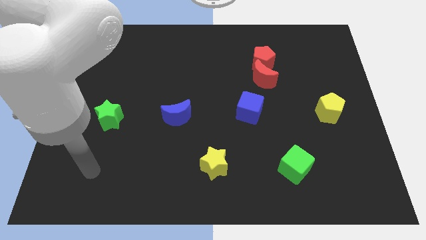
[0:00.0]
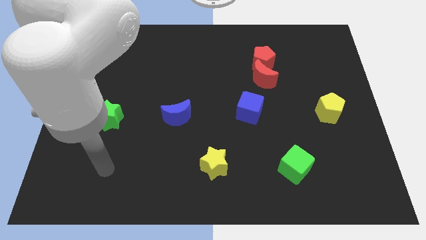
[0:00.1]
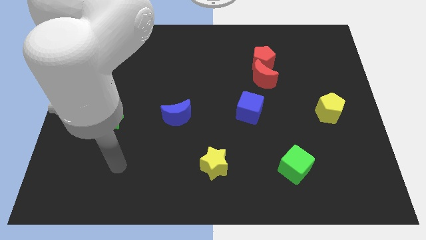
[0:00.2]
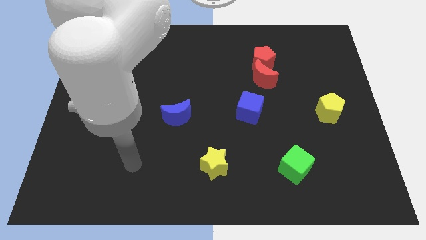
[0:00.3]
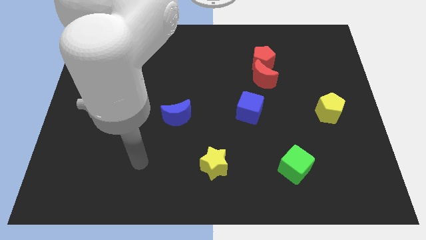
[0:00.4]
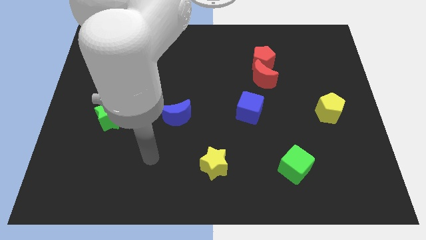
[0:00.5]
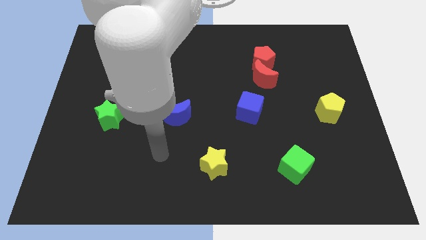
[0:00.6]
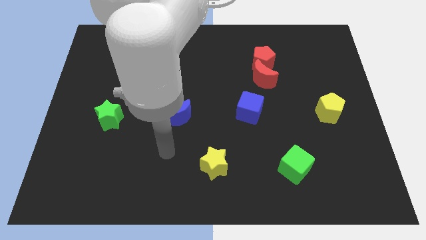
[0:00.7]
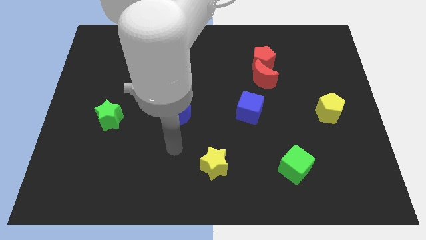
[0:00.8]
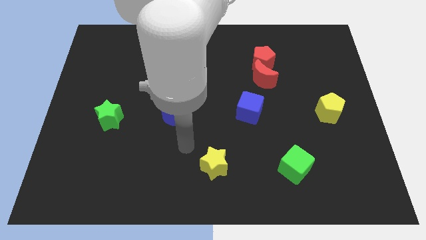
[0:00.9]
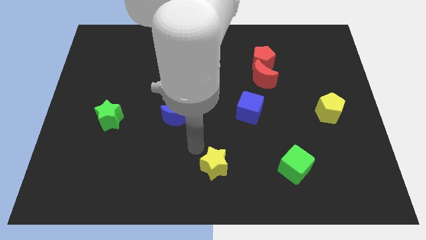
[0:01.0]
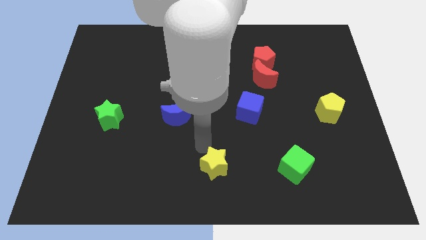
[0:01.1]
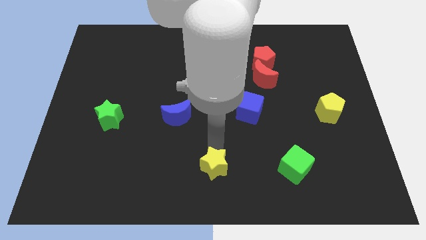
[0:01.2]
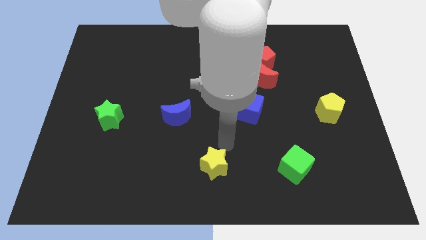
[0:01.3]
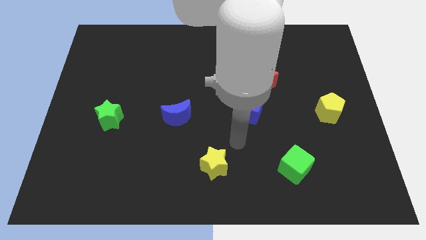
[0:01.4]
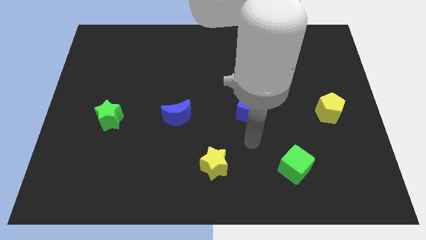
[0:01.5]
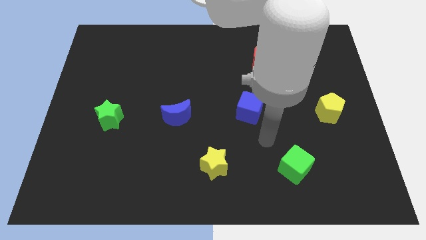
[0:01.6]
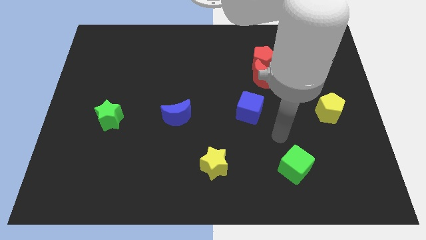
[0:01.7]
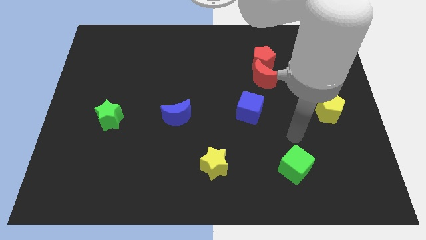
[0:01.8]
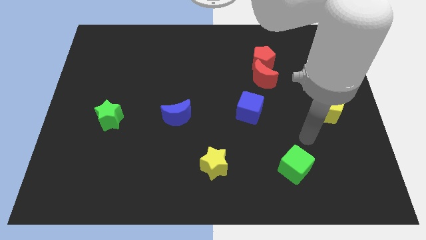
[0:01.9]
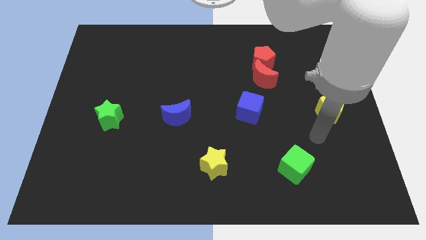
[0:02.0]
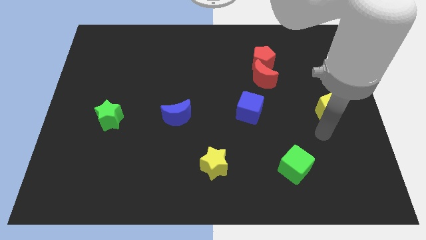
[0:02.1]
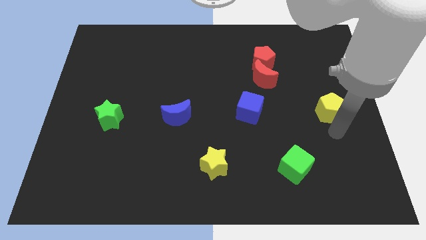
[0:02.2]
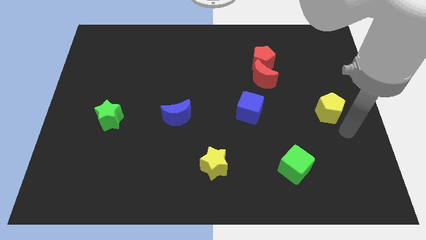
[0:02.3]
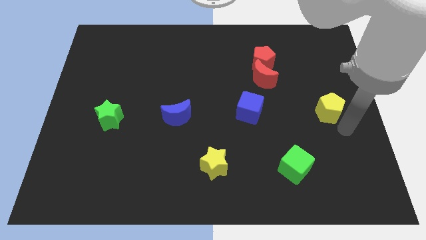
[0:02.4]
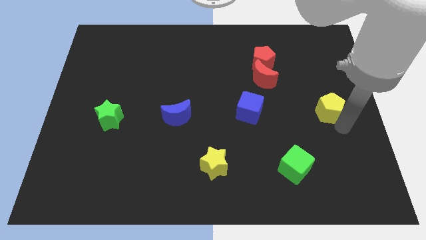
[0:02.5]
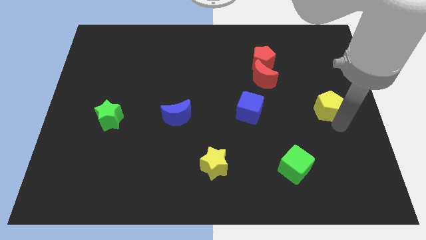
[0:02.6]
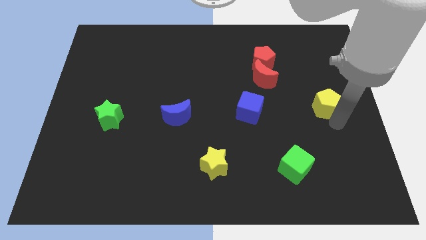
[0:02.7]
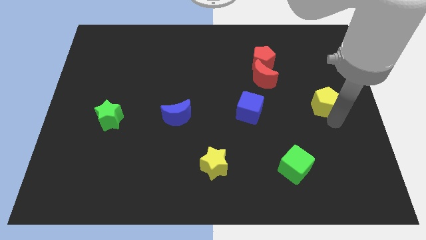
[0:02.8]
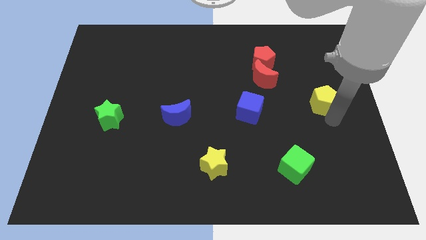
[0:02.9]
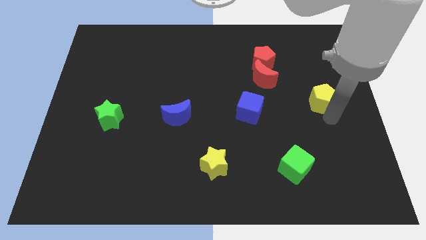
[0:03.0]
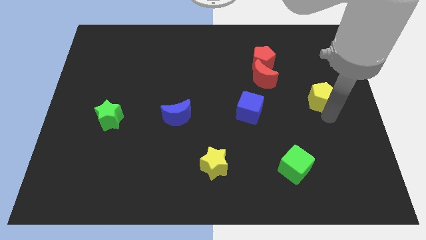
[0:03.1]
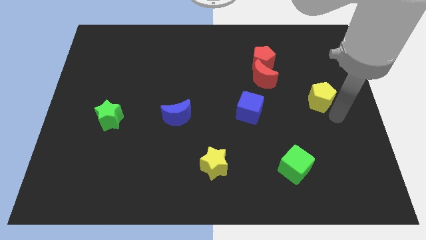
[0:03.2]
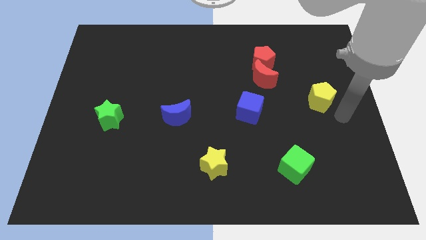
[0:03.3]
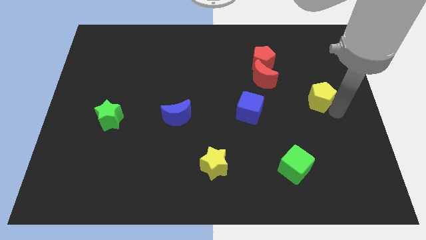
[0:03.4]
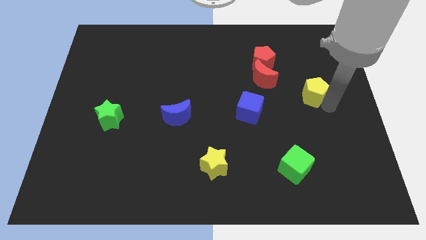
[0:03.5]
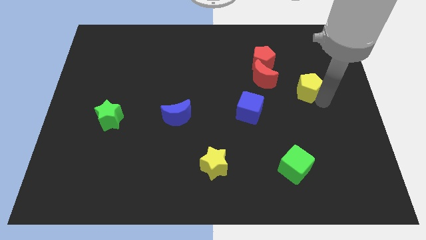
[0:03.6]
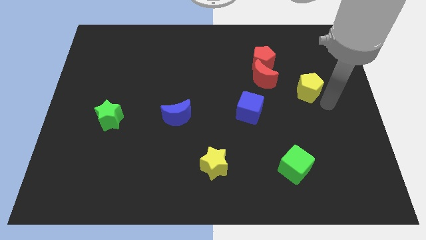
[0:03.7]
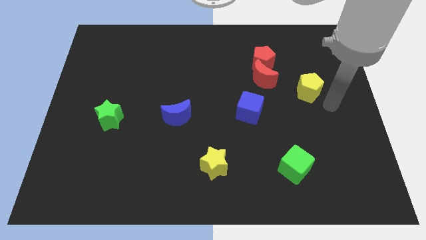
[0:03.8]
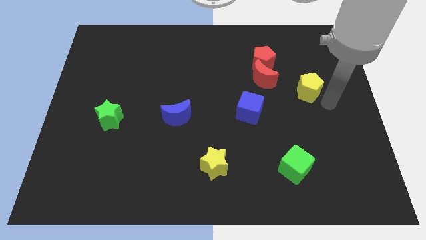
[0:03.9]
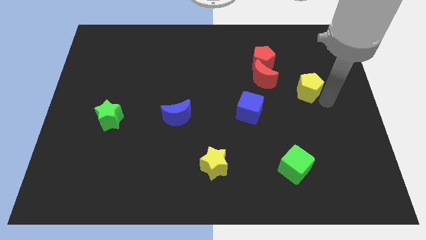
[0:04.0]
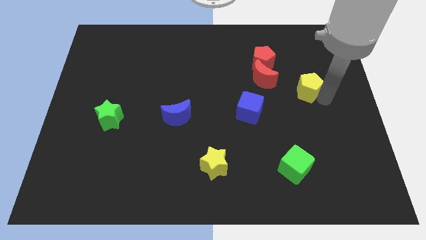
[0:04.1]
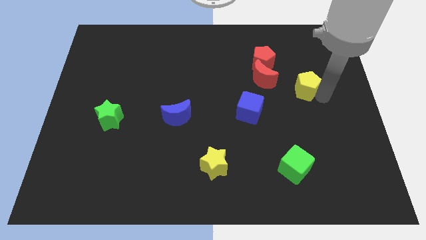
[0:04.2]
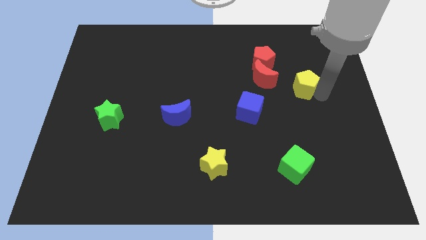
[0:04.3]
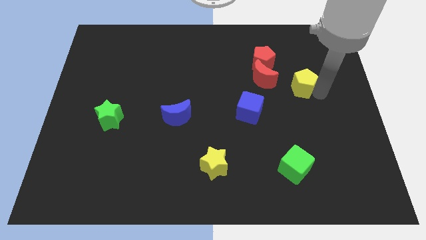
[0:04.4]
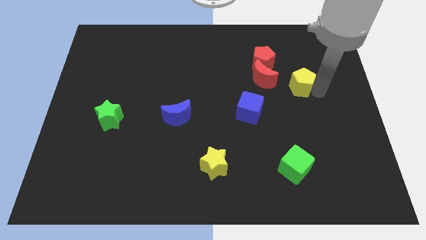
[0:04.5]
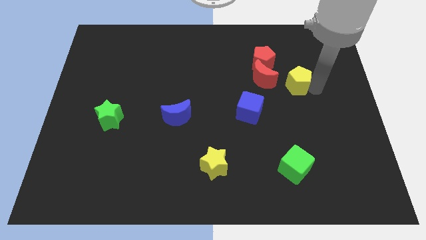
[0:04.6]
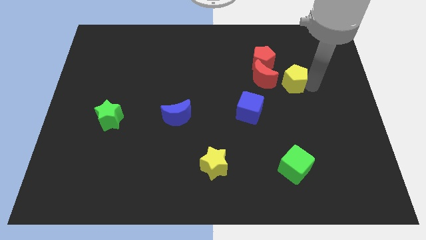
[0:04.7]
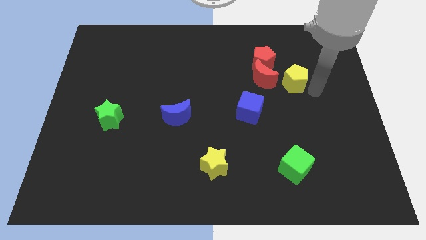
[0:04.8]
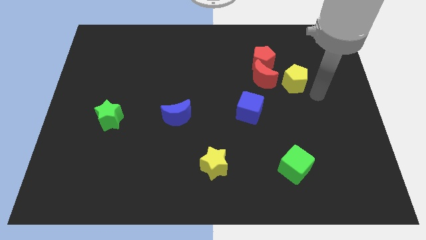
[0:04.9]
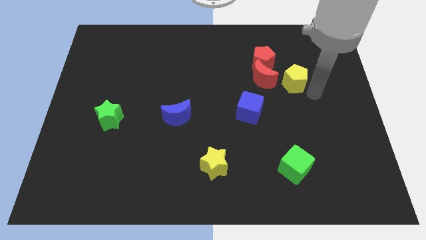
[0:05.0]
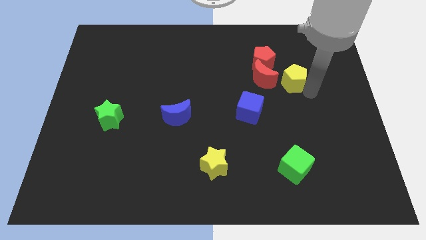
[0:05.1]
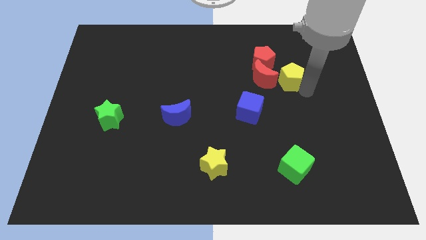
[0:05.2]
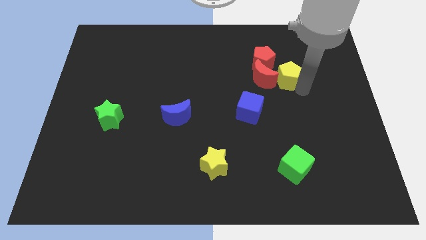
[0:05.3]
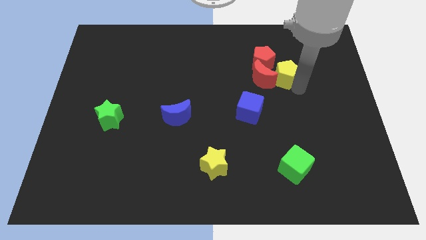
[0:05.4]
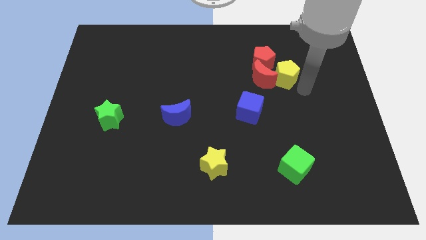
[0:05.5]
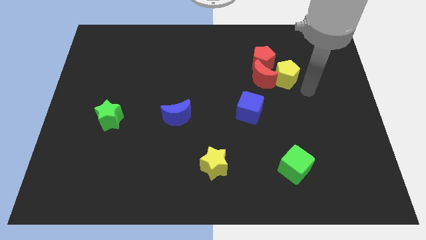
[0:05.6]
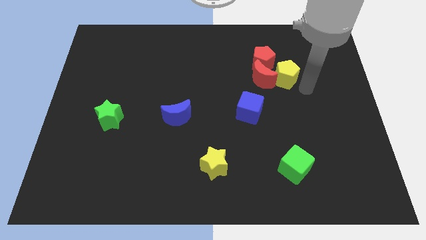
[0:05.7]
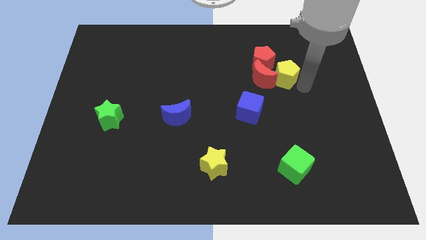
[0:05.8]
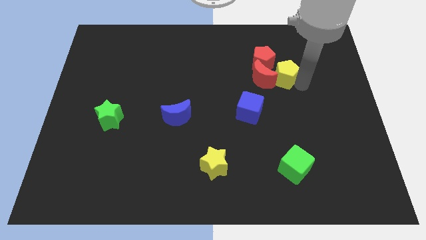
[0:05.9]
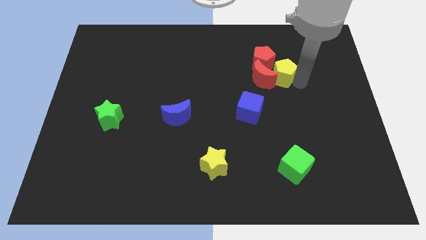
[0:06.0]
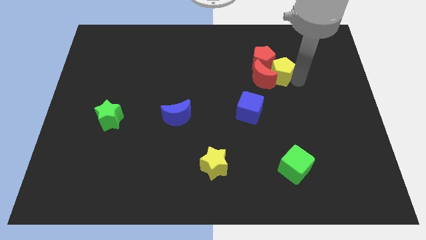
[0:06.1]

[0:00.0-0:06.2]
put the yellow pentagon close to the red pentagon

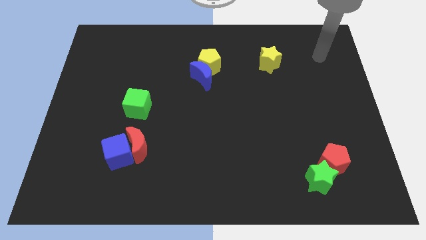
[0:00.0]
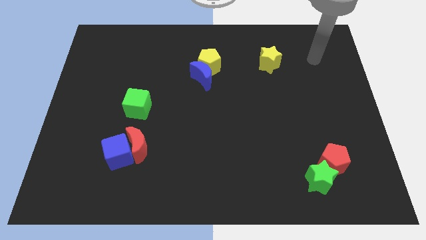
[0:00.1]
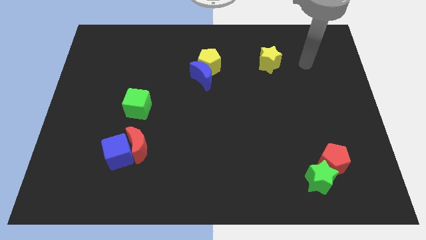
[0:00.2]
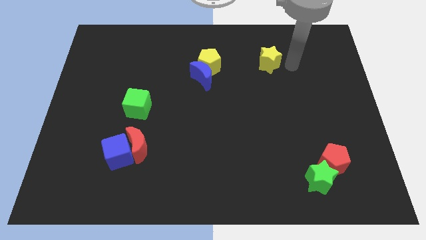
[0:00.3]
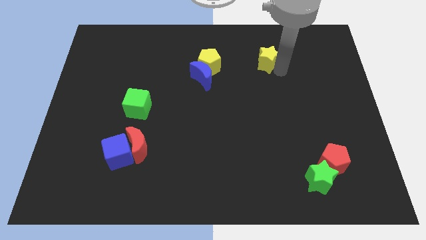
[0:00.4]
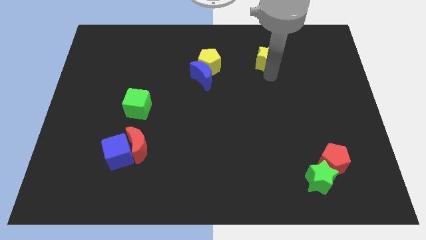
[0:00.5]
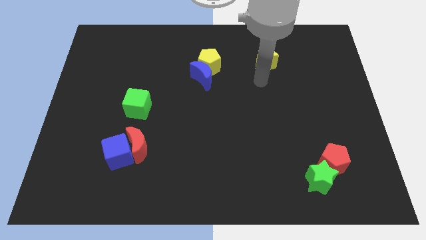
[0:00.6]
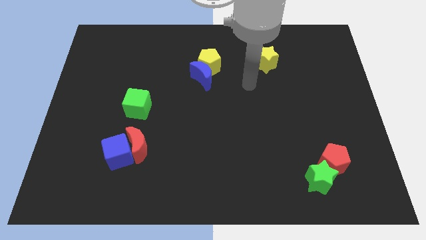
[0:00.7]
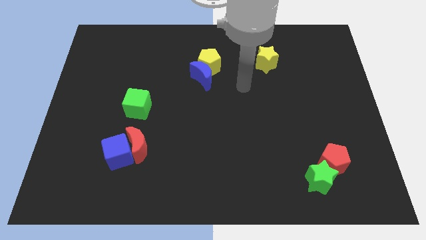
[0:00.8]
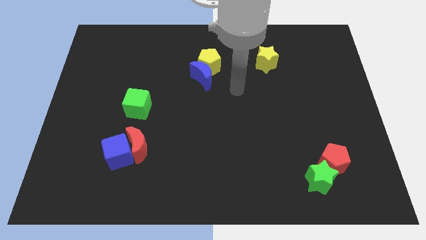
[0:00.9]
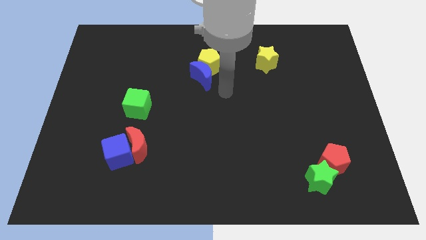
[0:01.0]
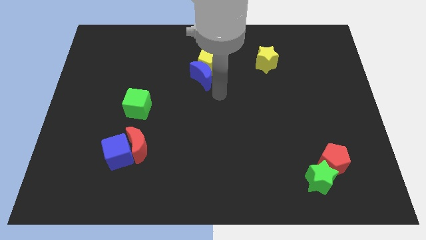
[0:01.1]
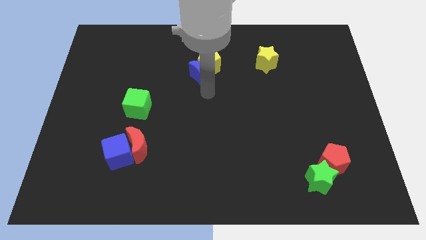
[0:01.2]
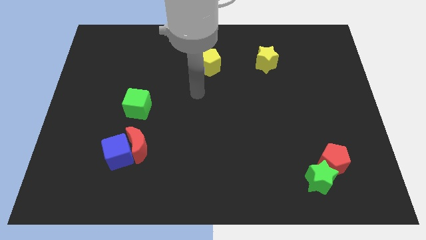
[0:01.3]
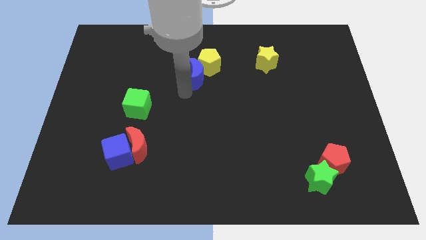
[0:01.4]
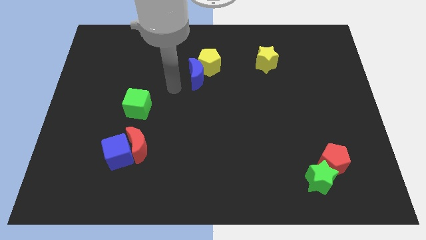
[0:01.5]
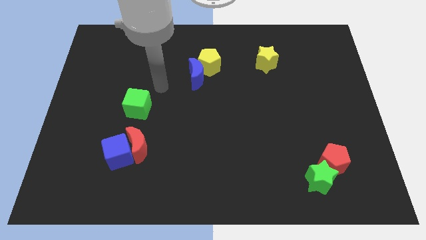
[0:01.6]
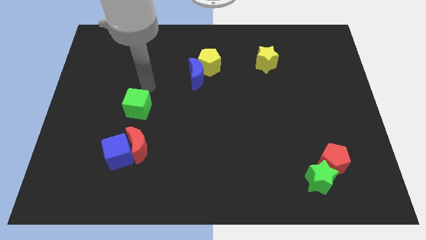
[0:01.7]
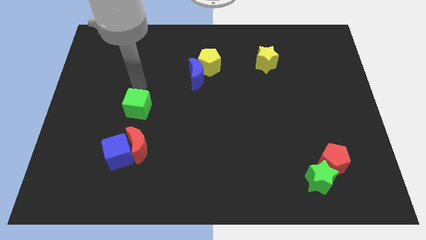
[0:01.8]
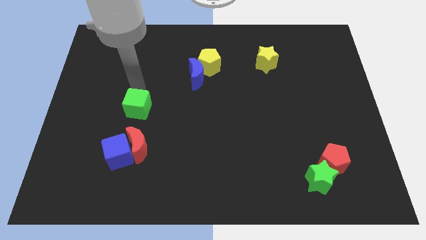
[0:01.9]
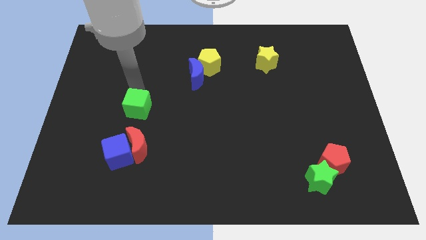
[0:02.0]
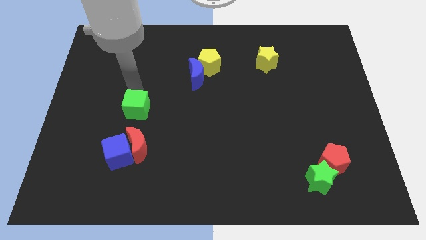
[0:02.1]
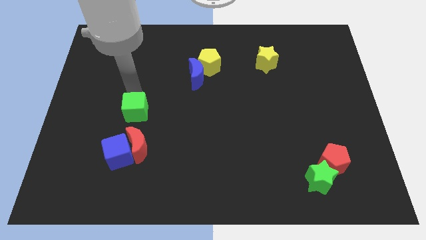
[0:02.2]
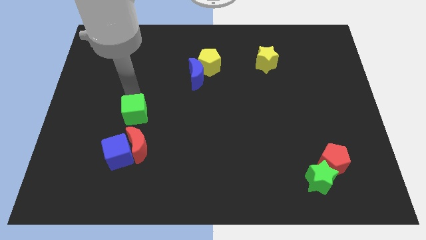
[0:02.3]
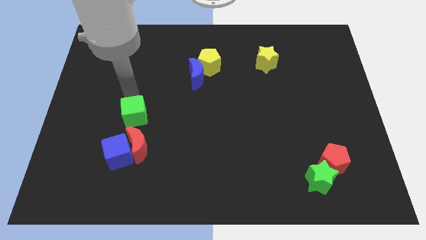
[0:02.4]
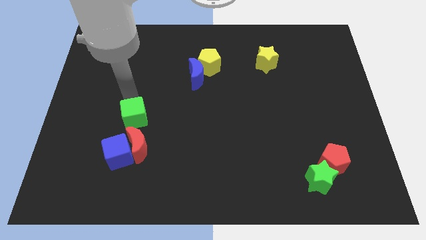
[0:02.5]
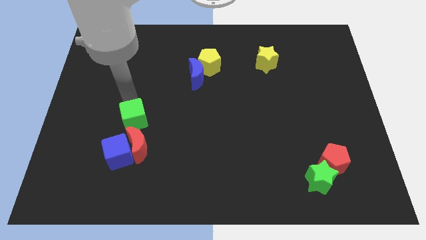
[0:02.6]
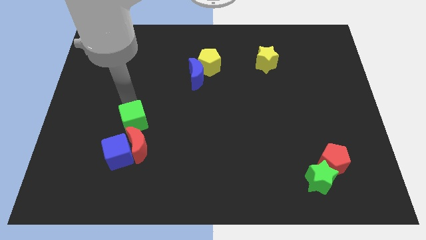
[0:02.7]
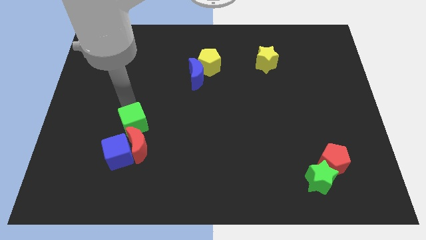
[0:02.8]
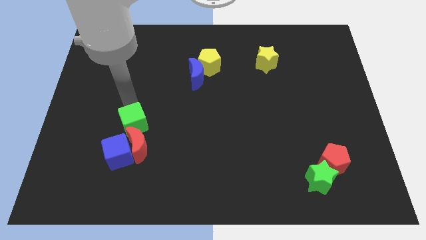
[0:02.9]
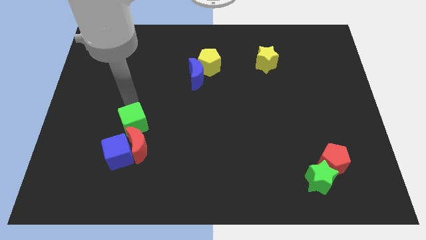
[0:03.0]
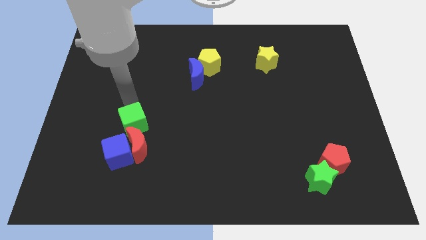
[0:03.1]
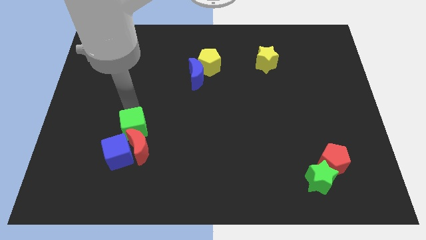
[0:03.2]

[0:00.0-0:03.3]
push the green cube next to the red moon
